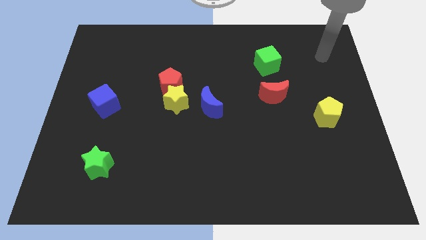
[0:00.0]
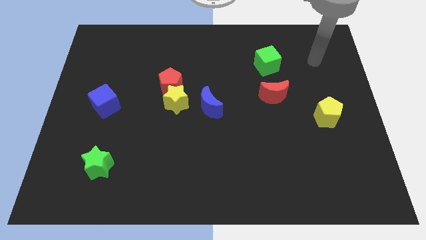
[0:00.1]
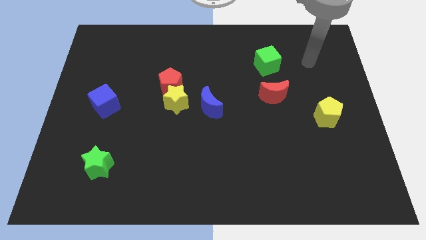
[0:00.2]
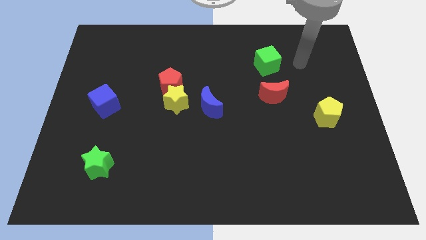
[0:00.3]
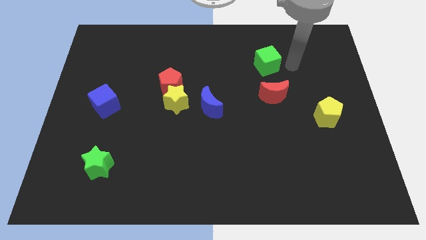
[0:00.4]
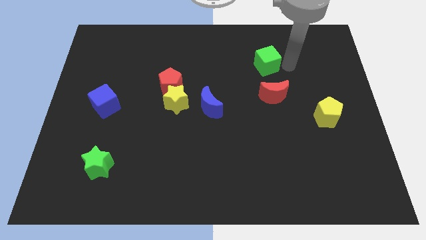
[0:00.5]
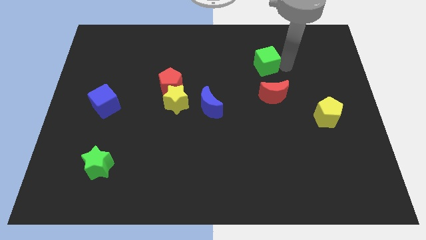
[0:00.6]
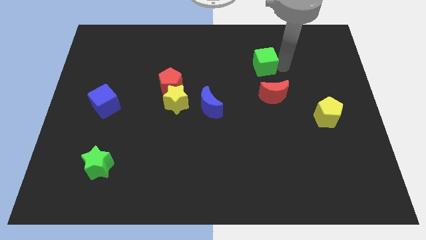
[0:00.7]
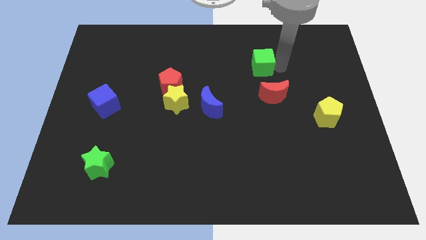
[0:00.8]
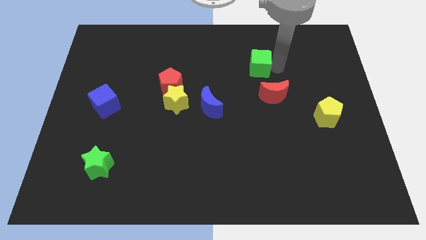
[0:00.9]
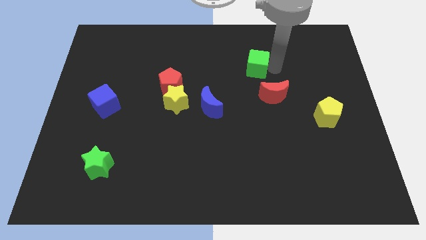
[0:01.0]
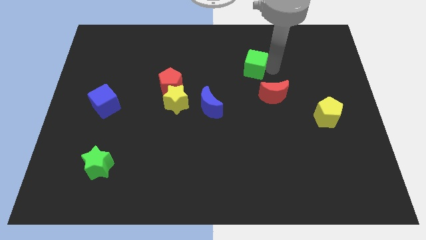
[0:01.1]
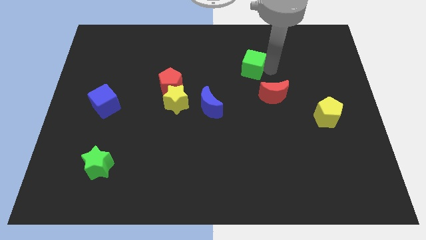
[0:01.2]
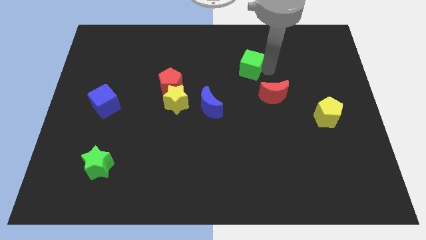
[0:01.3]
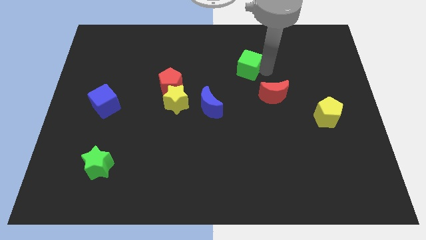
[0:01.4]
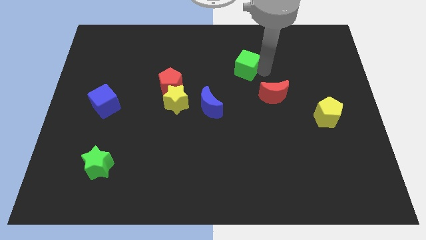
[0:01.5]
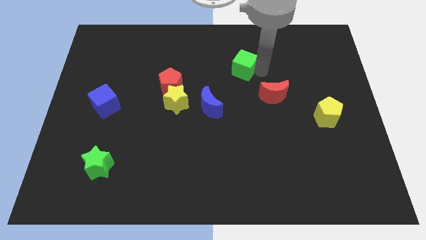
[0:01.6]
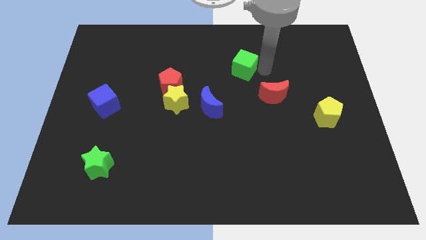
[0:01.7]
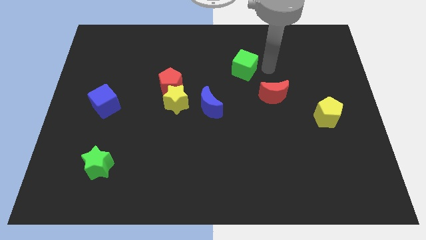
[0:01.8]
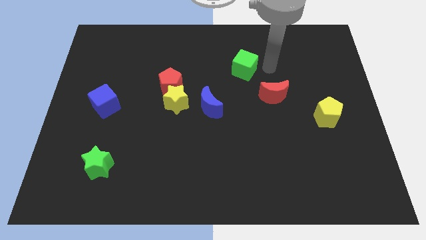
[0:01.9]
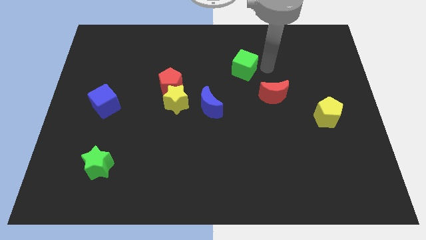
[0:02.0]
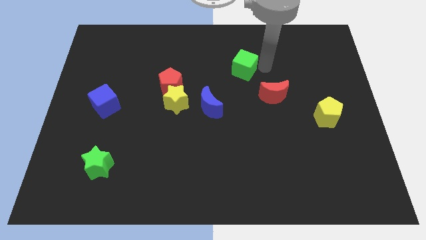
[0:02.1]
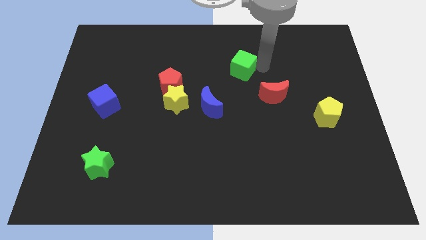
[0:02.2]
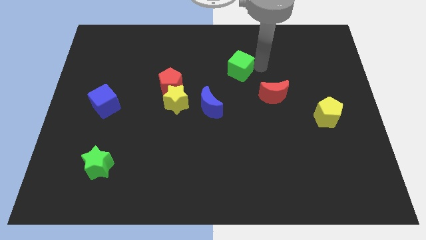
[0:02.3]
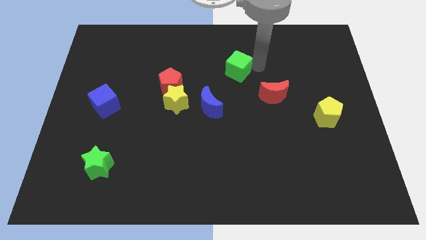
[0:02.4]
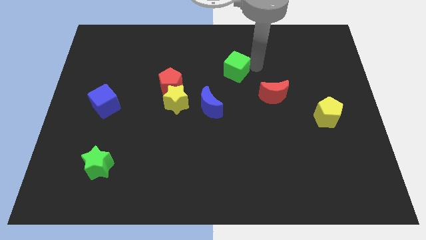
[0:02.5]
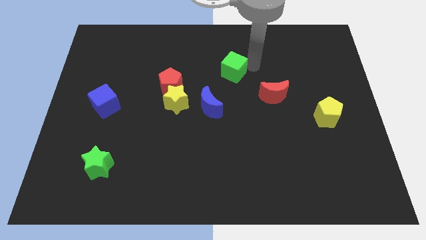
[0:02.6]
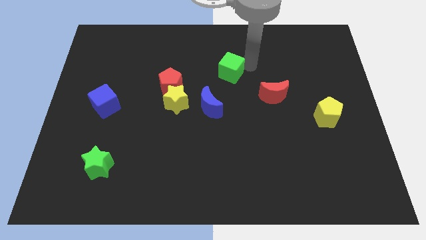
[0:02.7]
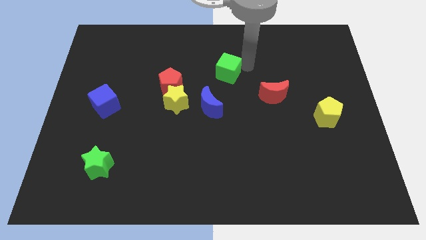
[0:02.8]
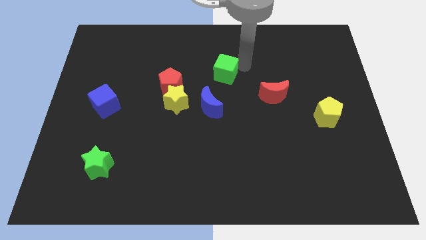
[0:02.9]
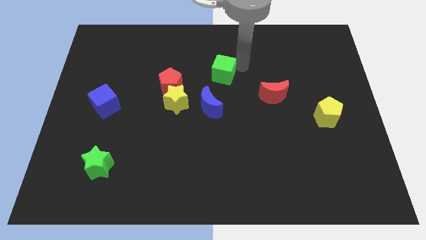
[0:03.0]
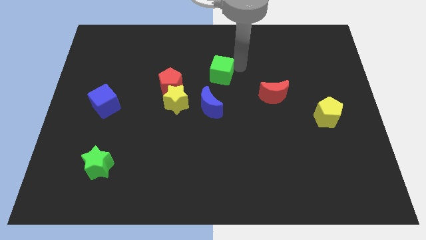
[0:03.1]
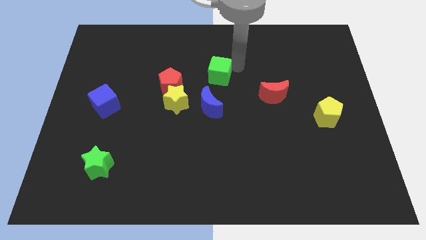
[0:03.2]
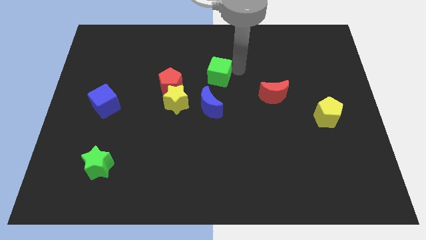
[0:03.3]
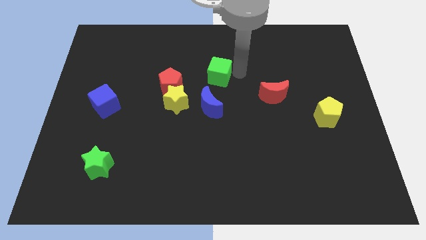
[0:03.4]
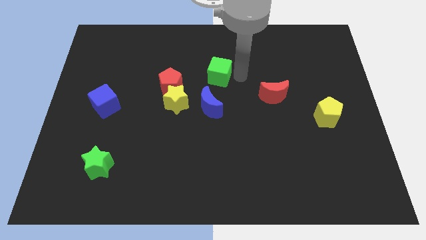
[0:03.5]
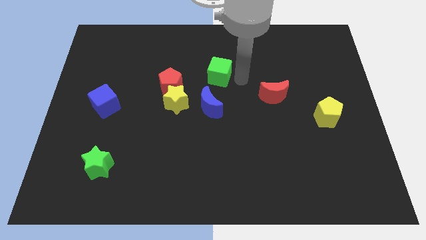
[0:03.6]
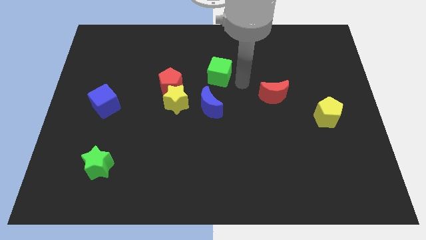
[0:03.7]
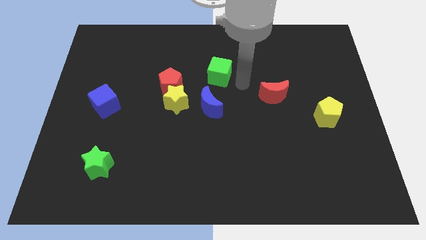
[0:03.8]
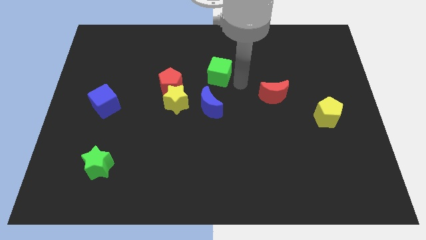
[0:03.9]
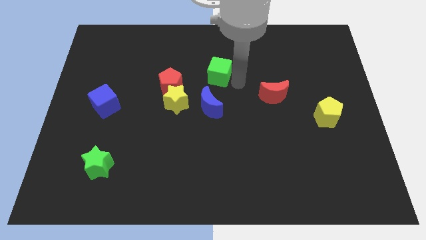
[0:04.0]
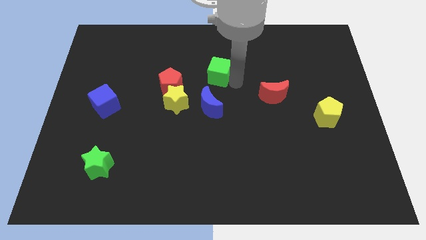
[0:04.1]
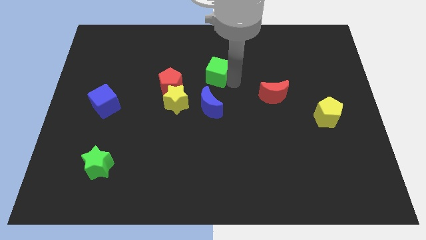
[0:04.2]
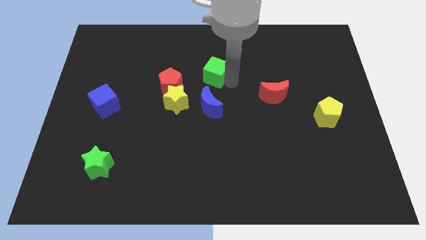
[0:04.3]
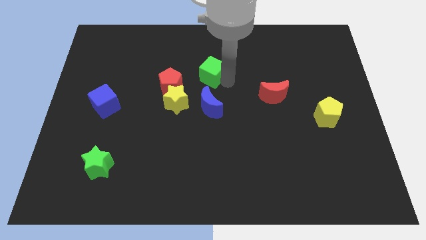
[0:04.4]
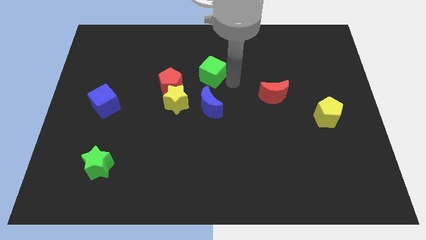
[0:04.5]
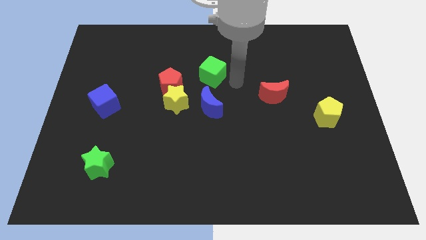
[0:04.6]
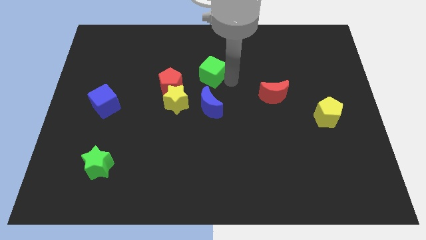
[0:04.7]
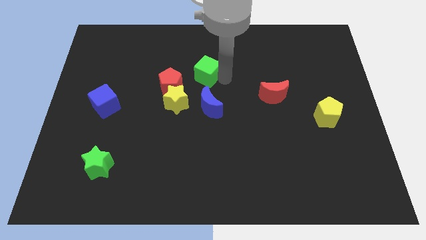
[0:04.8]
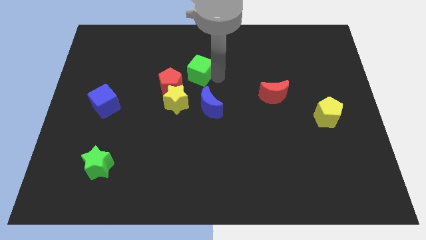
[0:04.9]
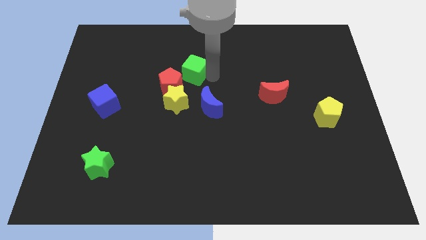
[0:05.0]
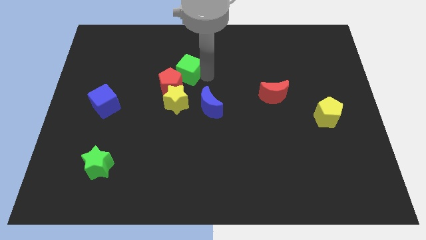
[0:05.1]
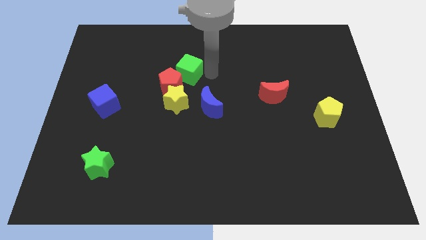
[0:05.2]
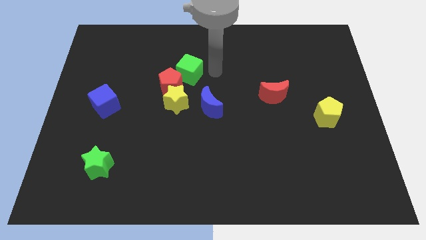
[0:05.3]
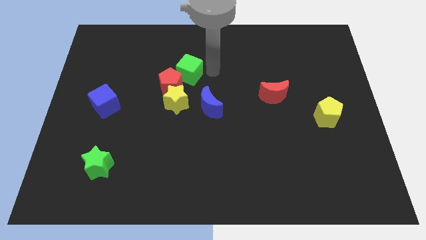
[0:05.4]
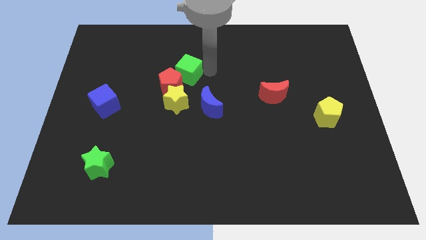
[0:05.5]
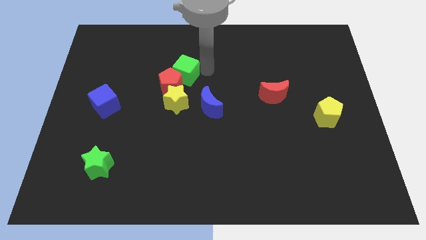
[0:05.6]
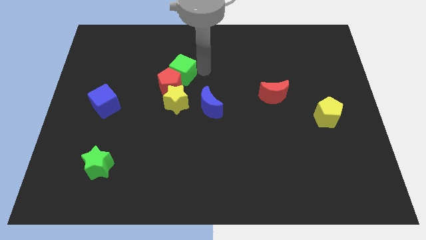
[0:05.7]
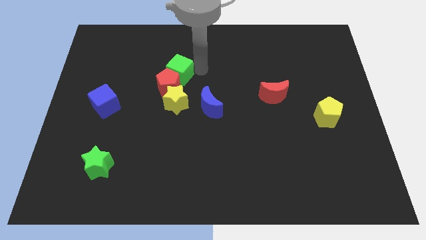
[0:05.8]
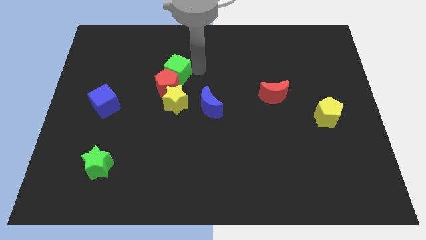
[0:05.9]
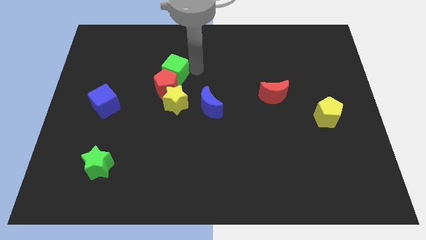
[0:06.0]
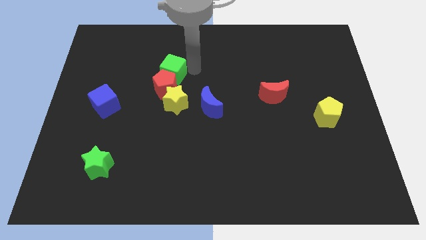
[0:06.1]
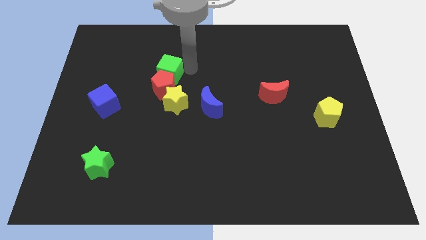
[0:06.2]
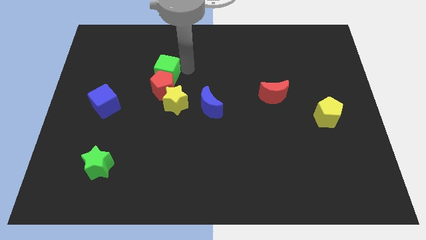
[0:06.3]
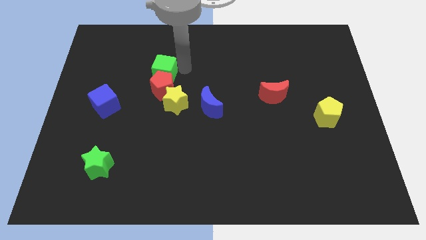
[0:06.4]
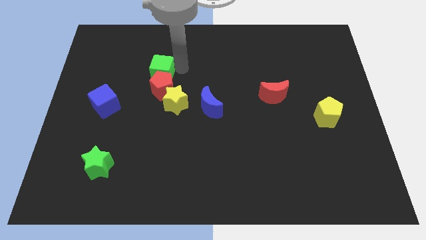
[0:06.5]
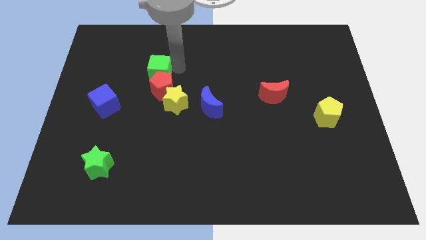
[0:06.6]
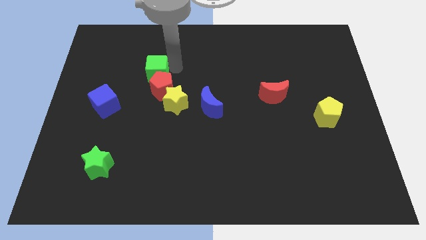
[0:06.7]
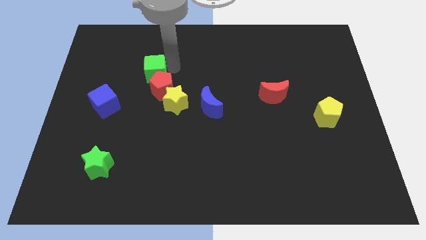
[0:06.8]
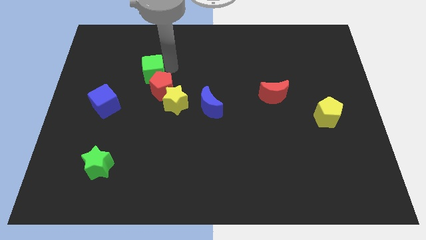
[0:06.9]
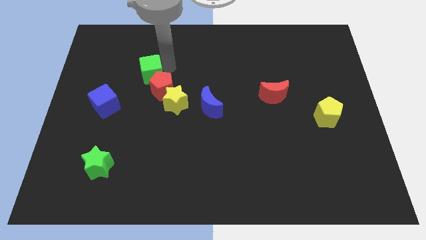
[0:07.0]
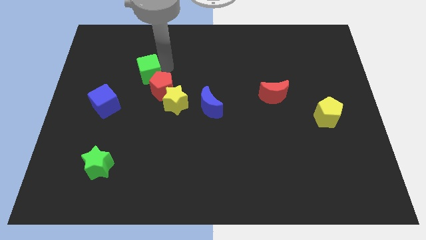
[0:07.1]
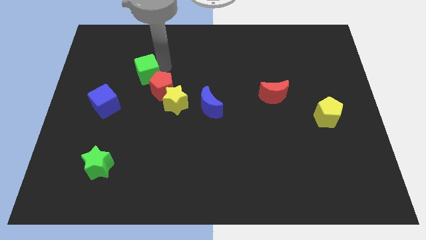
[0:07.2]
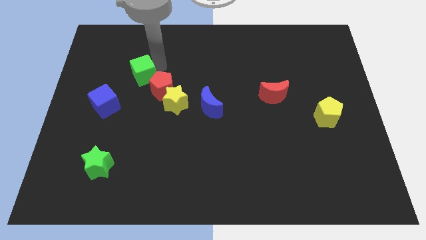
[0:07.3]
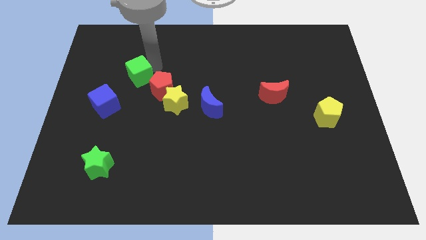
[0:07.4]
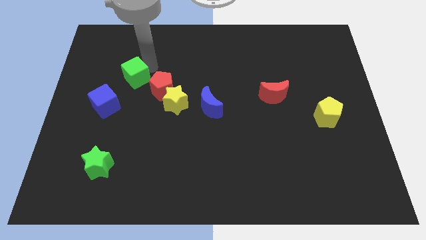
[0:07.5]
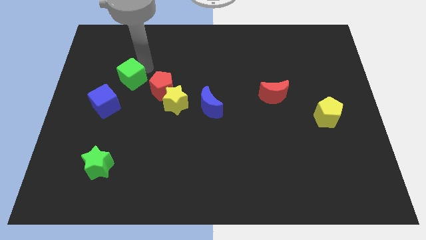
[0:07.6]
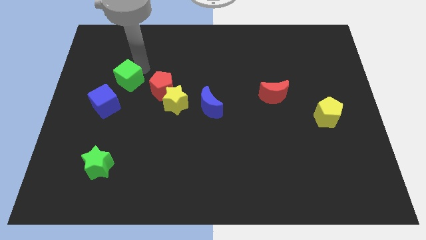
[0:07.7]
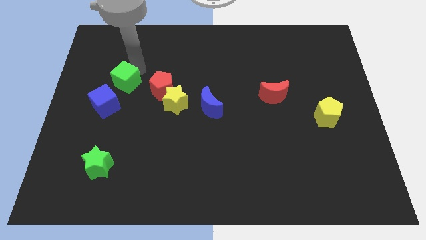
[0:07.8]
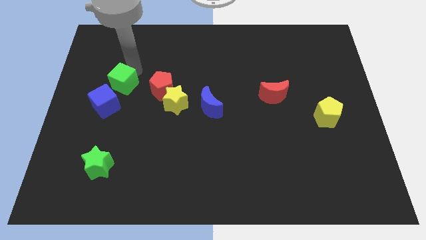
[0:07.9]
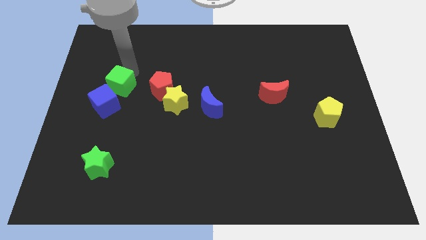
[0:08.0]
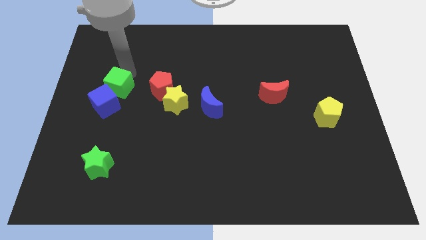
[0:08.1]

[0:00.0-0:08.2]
move the green cube towards the blue cube
